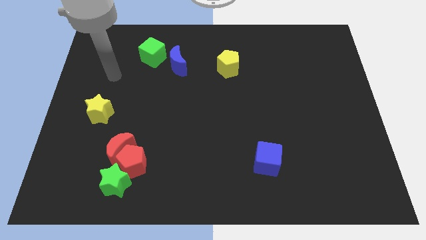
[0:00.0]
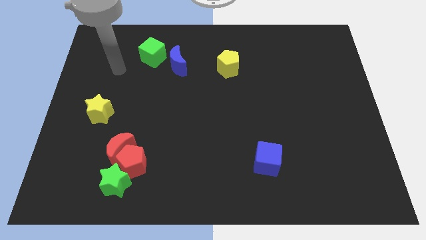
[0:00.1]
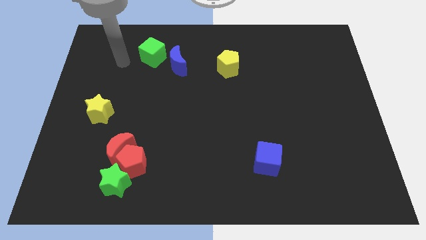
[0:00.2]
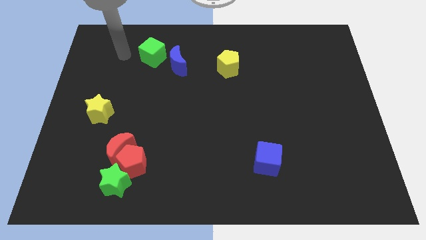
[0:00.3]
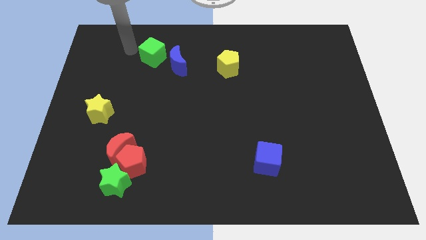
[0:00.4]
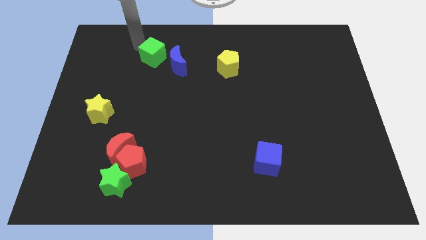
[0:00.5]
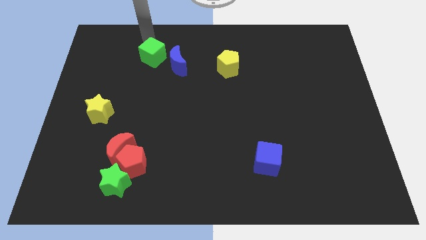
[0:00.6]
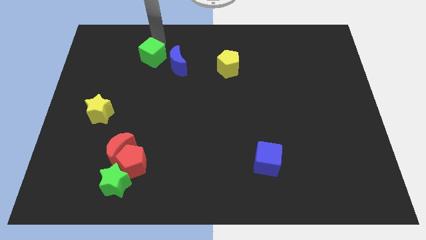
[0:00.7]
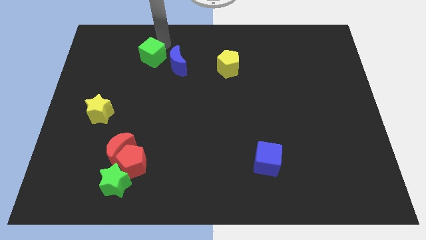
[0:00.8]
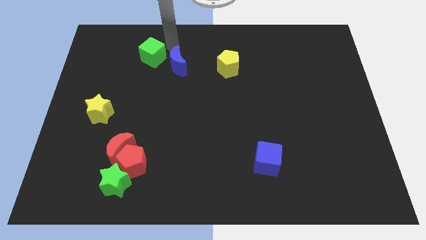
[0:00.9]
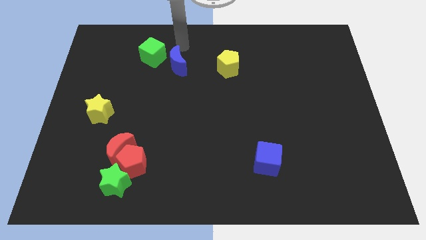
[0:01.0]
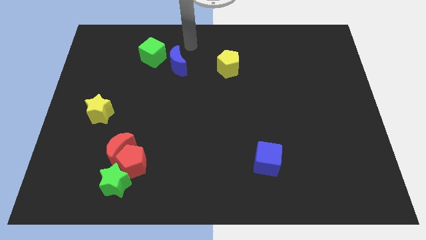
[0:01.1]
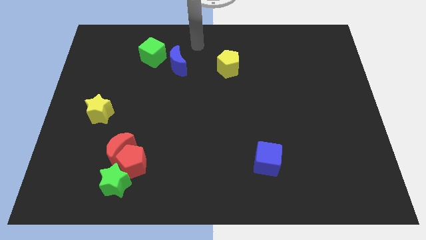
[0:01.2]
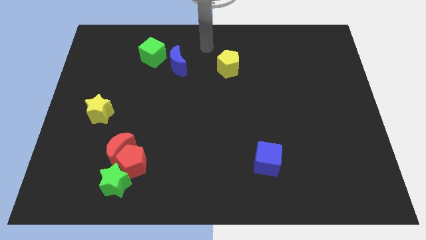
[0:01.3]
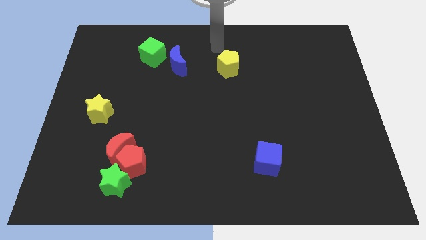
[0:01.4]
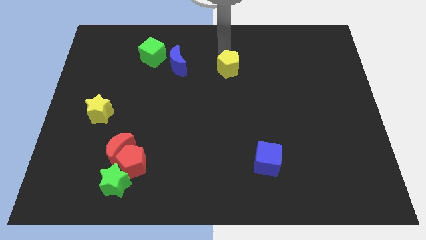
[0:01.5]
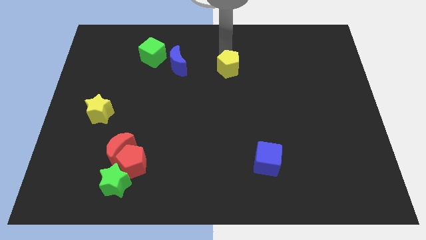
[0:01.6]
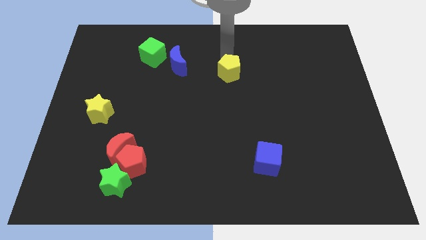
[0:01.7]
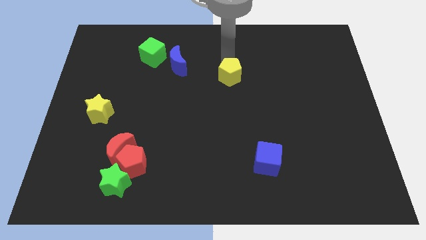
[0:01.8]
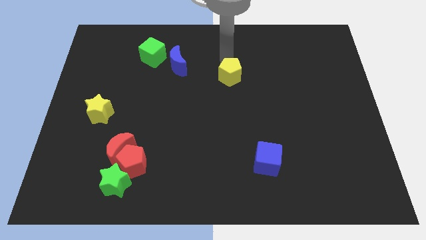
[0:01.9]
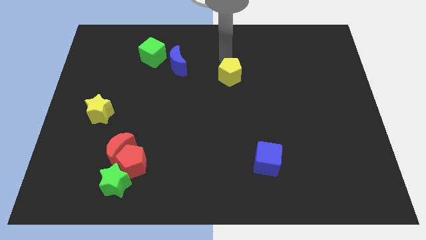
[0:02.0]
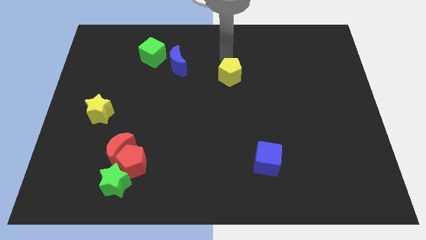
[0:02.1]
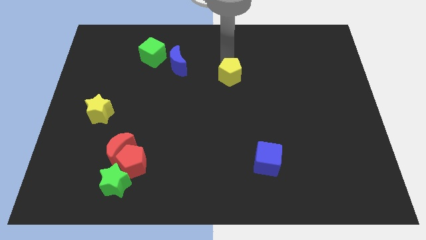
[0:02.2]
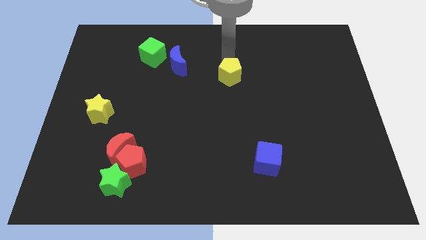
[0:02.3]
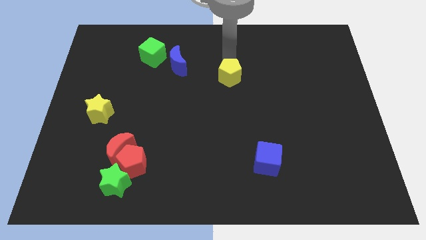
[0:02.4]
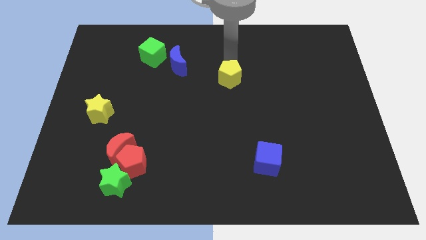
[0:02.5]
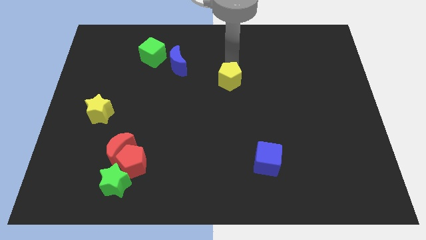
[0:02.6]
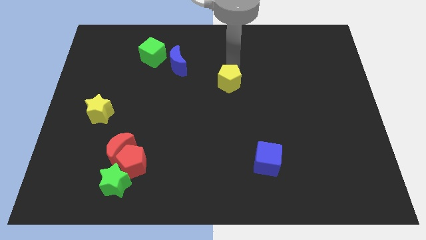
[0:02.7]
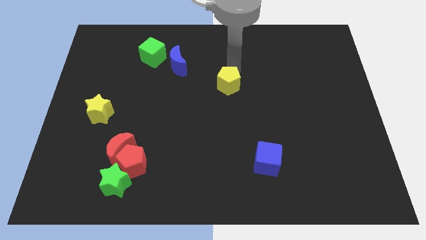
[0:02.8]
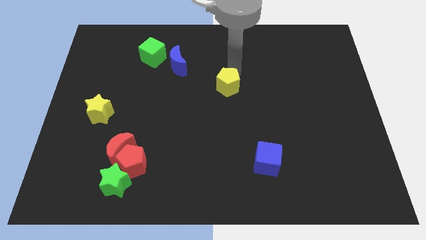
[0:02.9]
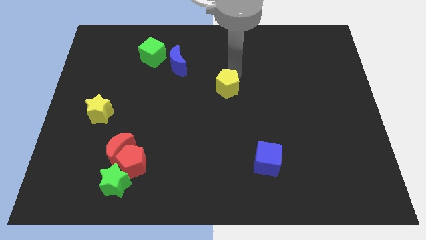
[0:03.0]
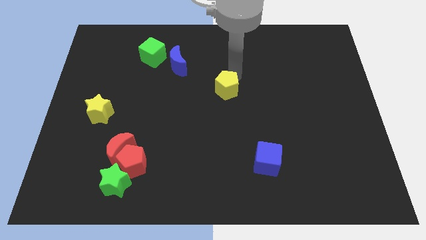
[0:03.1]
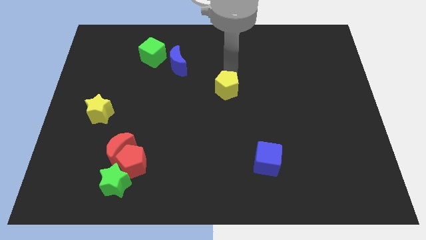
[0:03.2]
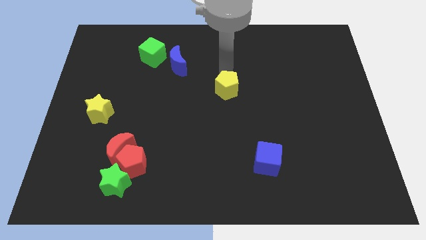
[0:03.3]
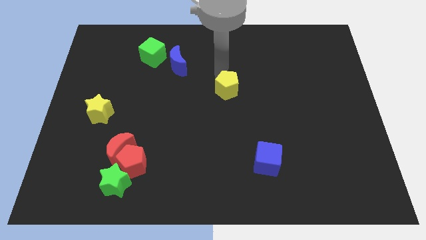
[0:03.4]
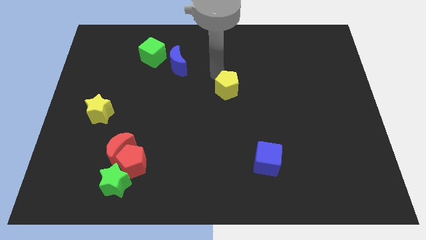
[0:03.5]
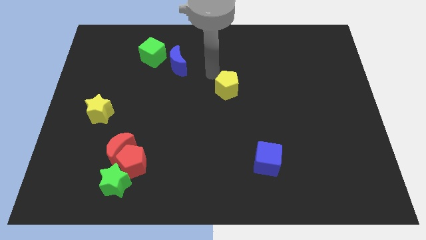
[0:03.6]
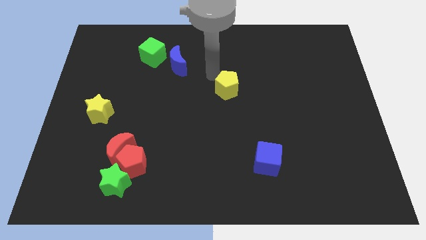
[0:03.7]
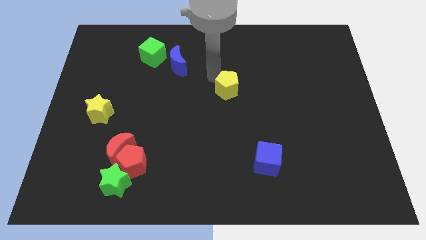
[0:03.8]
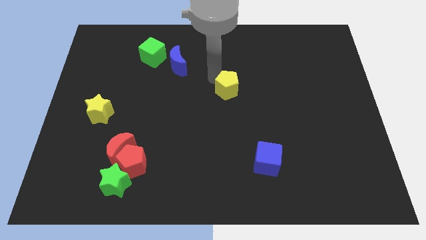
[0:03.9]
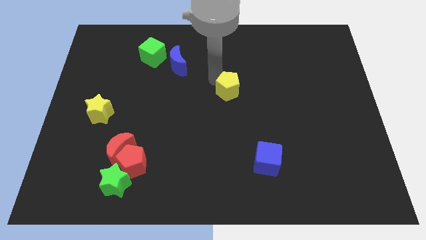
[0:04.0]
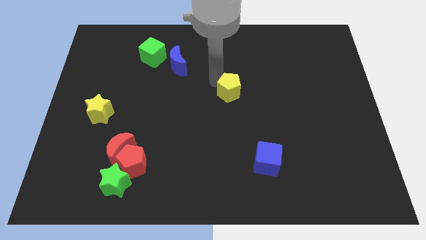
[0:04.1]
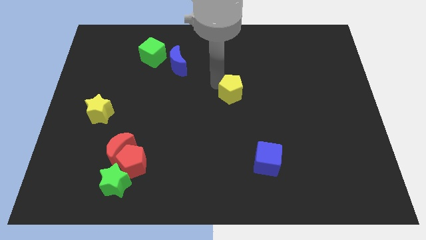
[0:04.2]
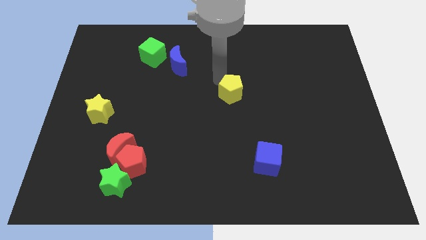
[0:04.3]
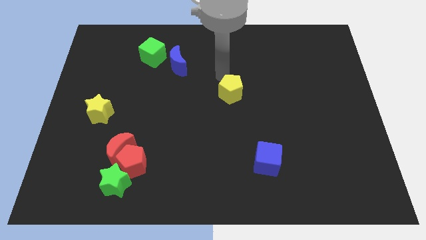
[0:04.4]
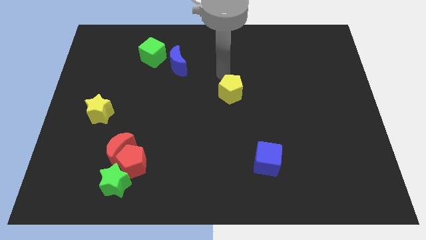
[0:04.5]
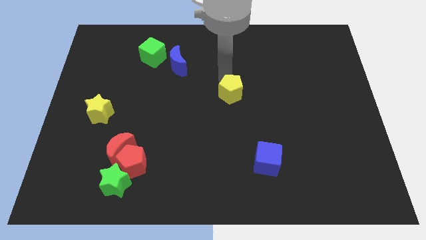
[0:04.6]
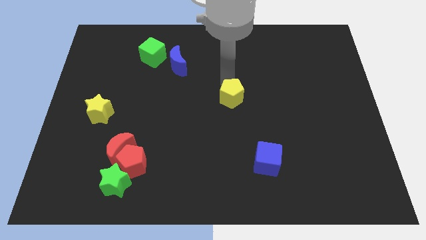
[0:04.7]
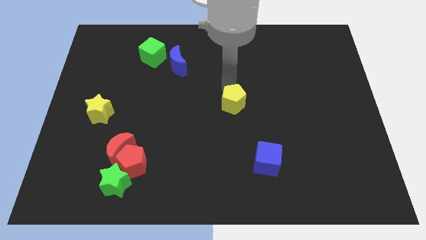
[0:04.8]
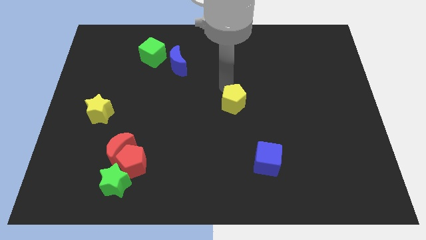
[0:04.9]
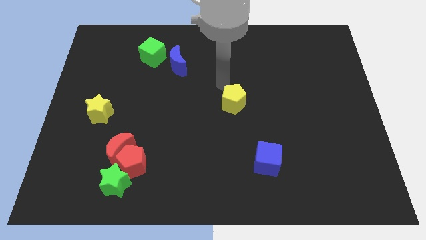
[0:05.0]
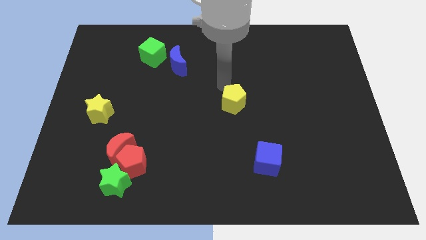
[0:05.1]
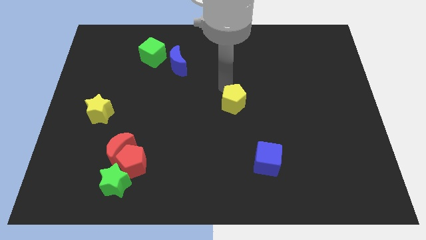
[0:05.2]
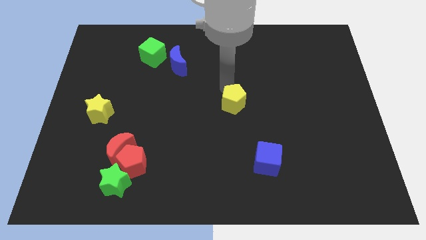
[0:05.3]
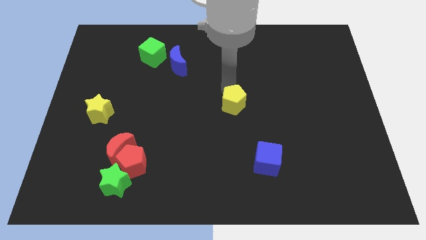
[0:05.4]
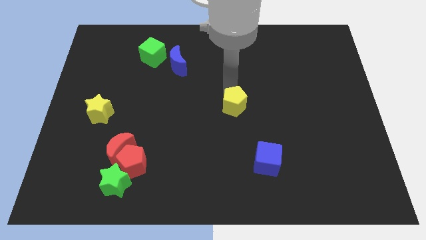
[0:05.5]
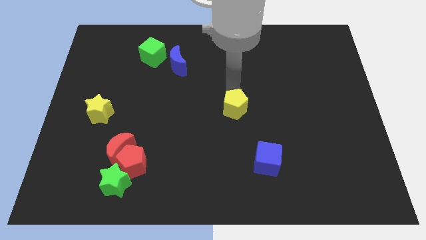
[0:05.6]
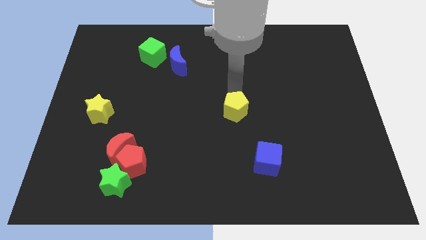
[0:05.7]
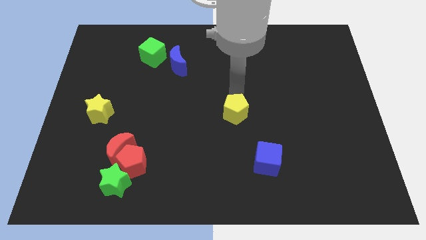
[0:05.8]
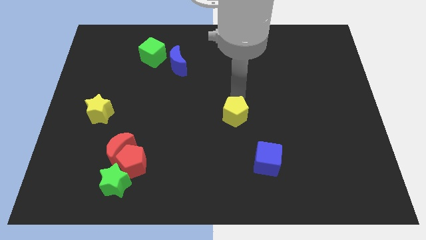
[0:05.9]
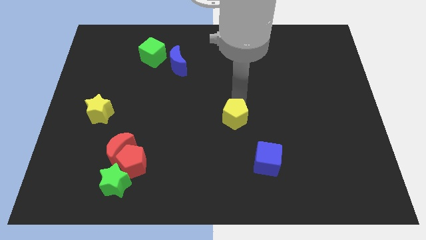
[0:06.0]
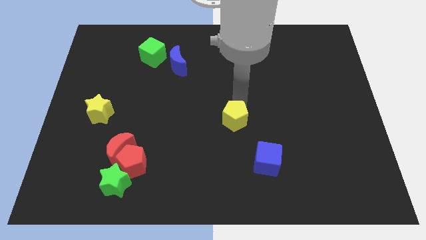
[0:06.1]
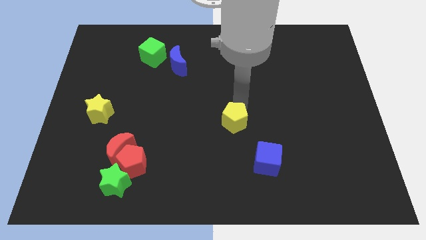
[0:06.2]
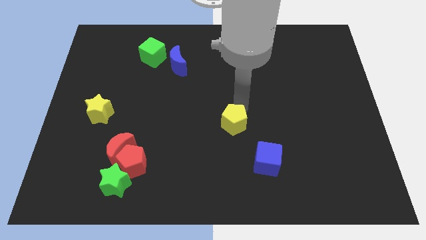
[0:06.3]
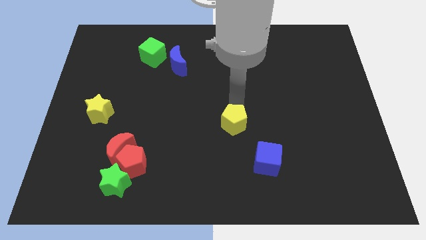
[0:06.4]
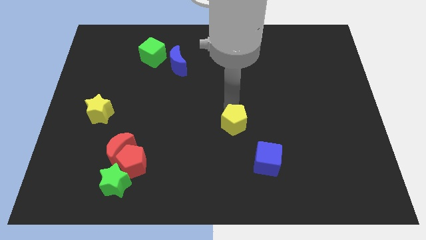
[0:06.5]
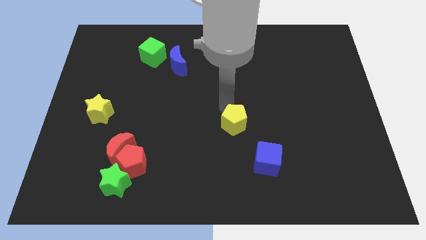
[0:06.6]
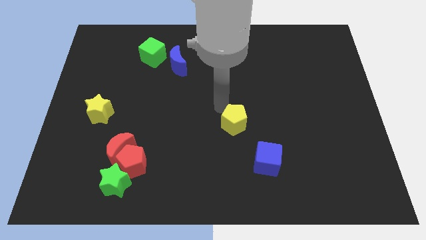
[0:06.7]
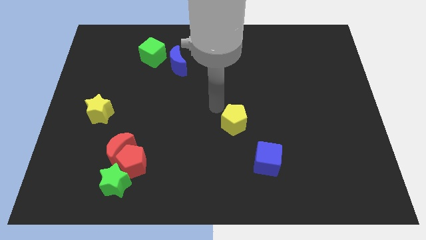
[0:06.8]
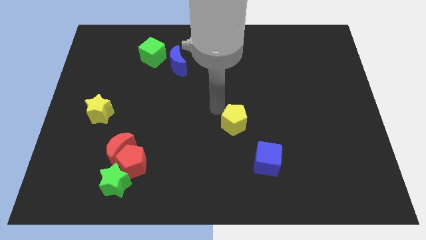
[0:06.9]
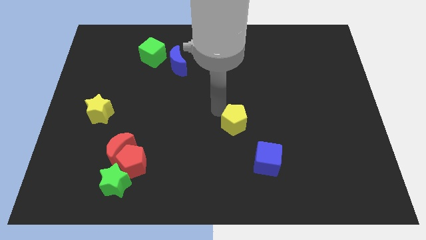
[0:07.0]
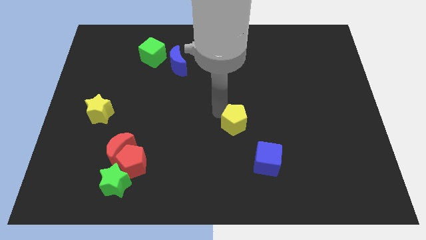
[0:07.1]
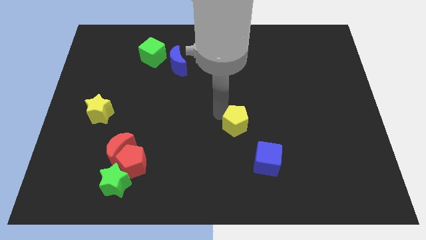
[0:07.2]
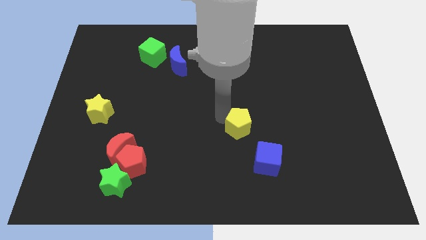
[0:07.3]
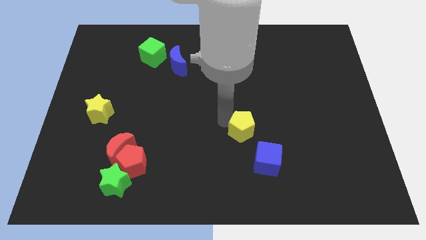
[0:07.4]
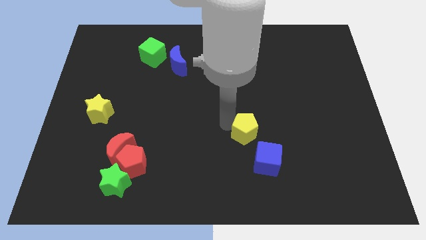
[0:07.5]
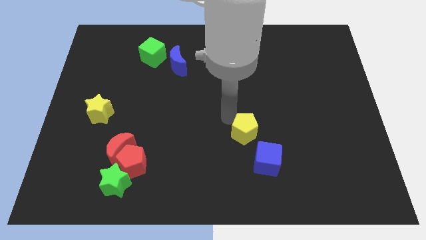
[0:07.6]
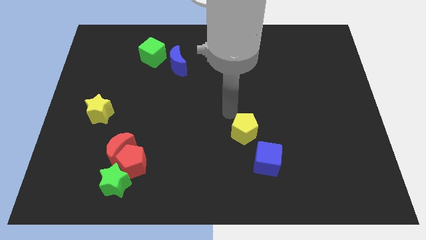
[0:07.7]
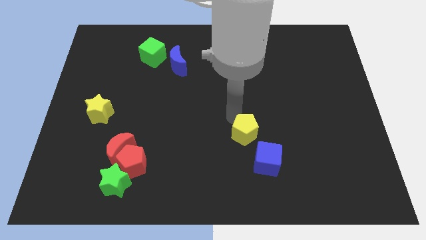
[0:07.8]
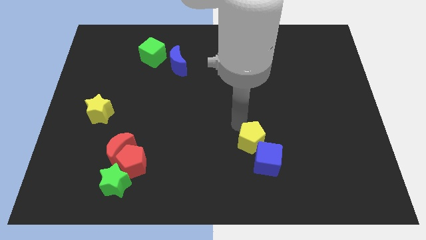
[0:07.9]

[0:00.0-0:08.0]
move the yellow pentagon next to the blue cube
